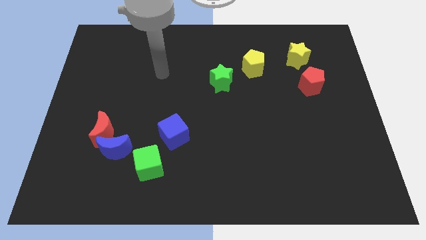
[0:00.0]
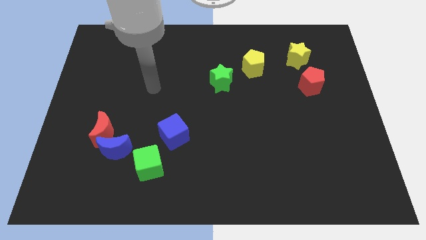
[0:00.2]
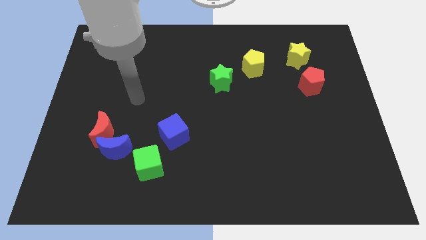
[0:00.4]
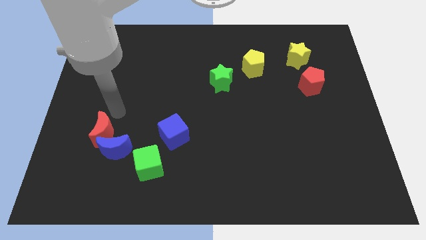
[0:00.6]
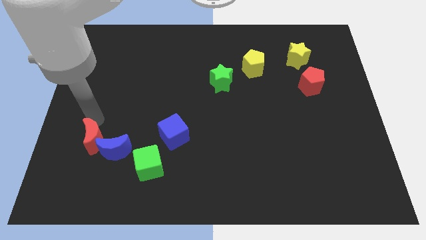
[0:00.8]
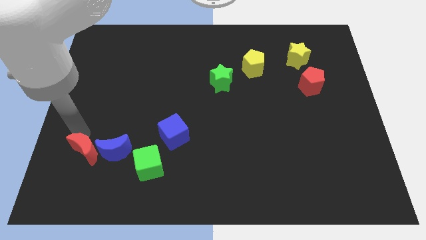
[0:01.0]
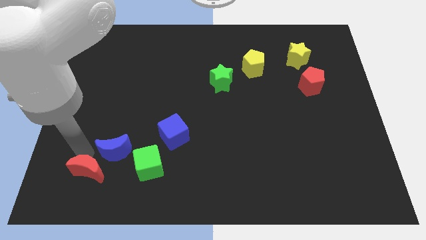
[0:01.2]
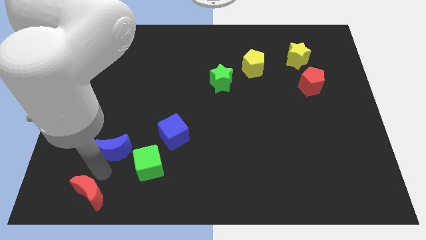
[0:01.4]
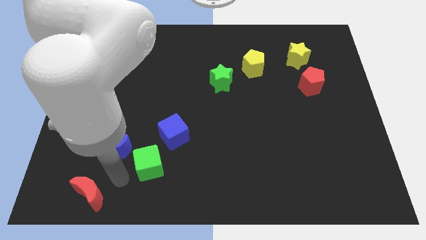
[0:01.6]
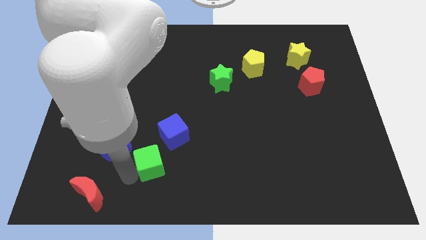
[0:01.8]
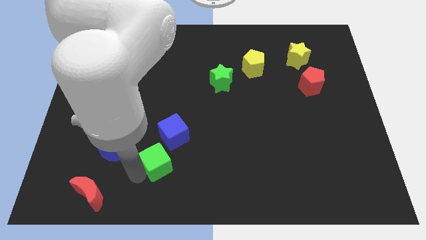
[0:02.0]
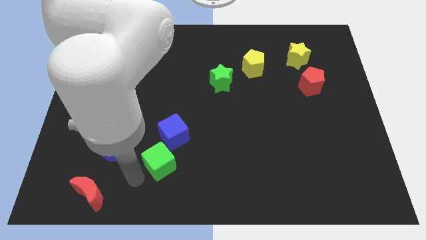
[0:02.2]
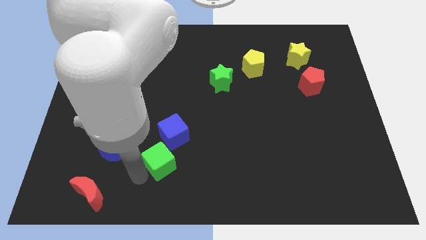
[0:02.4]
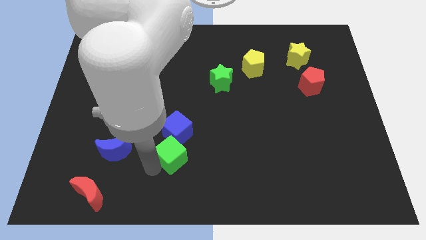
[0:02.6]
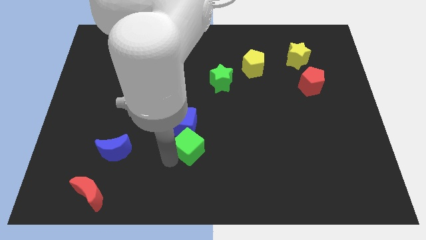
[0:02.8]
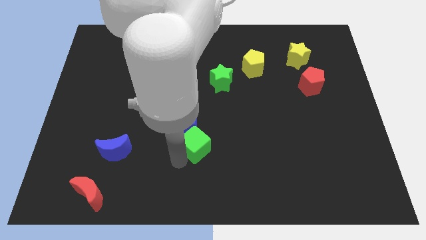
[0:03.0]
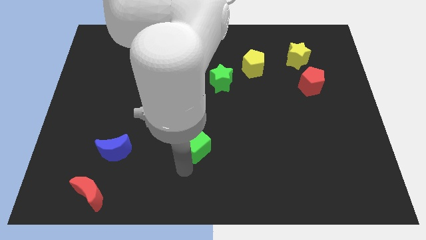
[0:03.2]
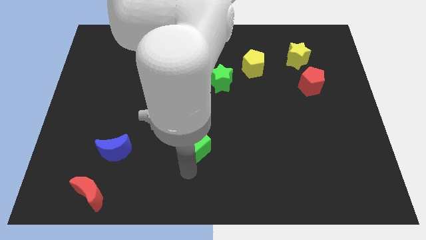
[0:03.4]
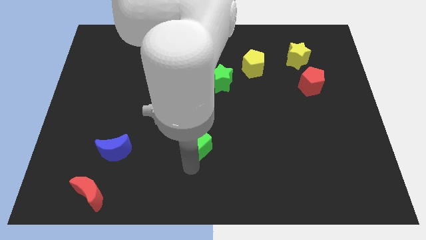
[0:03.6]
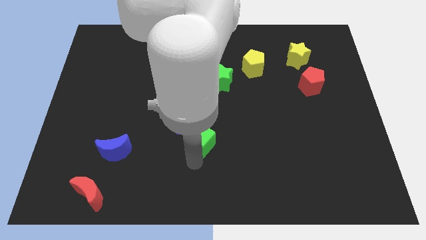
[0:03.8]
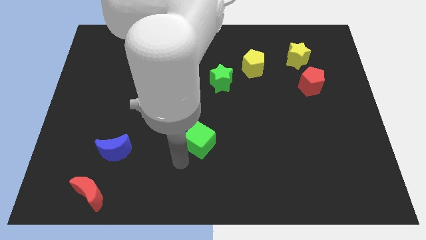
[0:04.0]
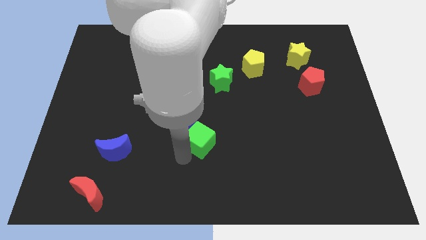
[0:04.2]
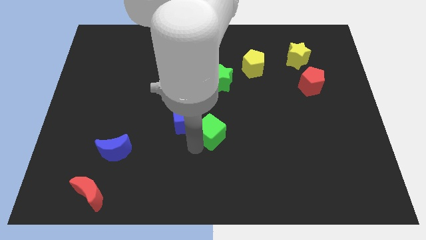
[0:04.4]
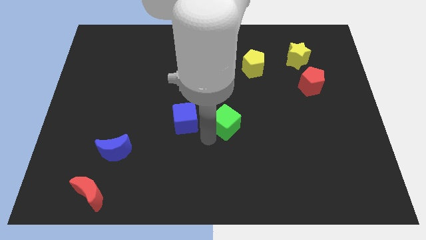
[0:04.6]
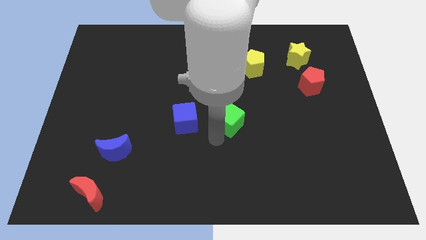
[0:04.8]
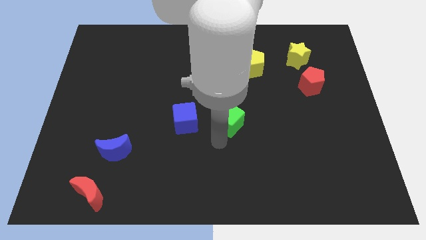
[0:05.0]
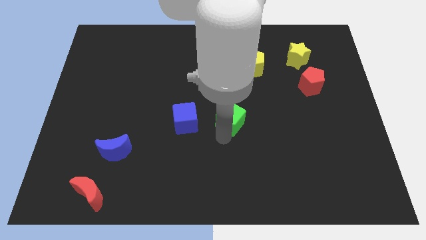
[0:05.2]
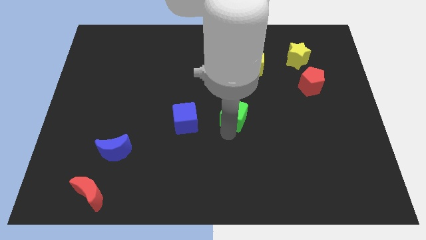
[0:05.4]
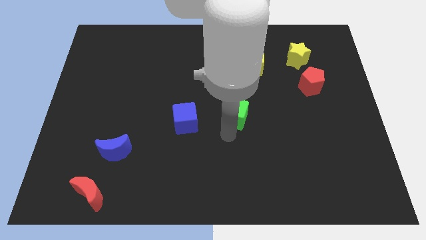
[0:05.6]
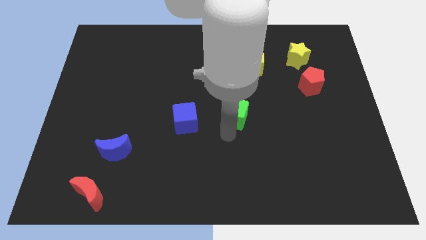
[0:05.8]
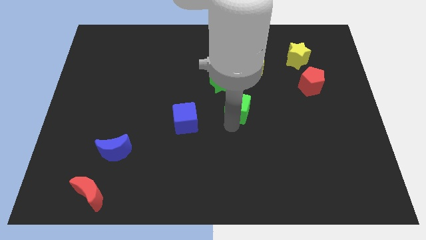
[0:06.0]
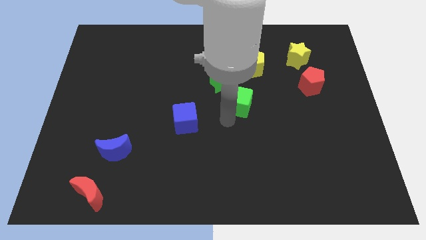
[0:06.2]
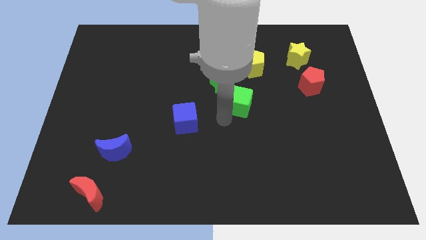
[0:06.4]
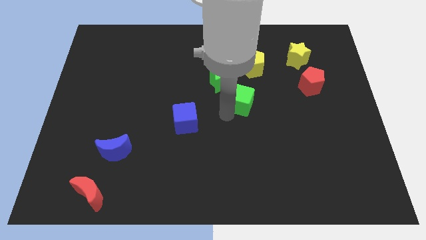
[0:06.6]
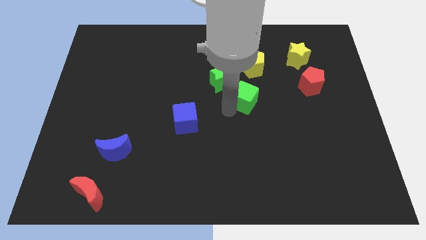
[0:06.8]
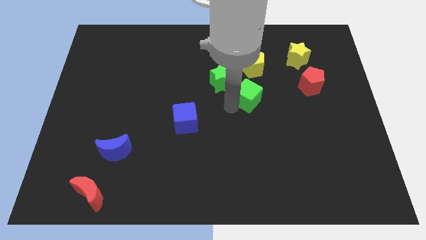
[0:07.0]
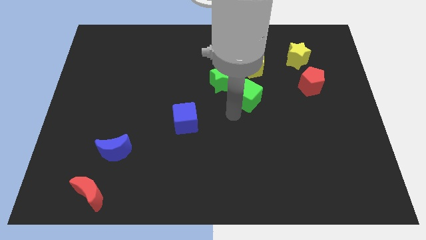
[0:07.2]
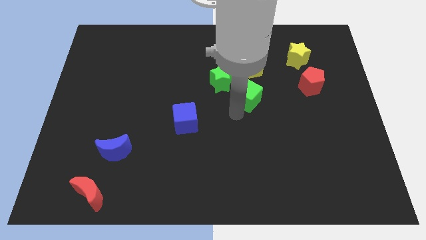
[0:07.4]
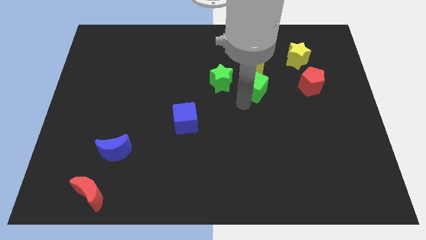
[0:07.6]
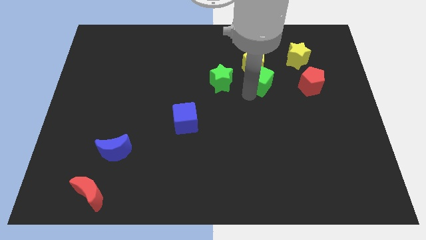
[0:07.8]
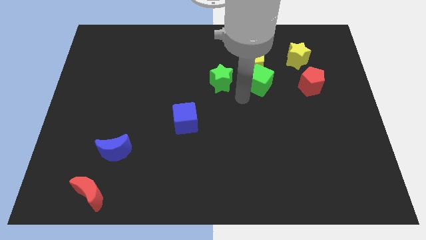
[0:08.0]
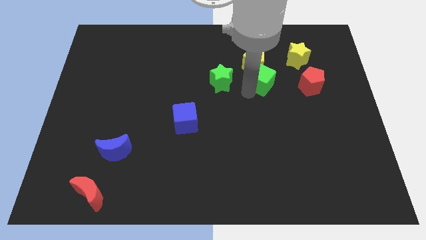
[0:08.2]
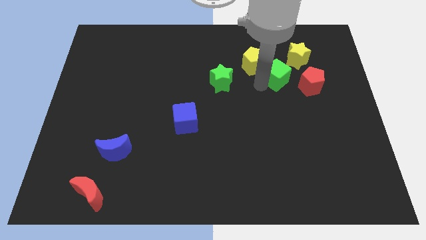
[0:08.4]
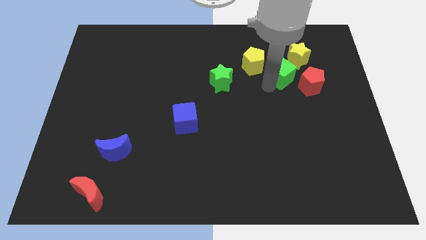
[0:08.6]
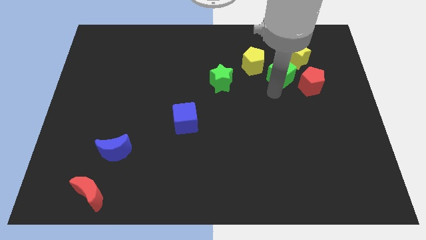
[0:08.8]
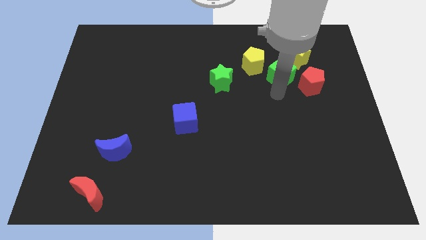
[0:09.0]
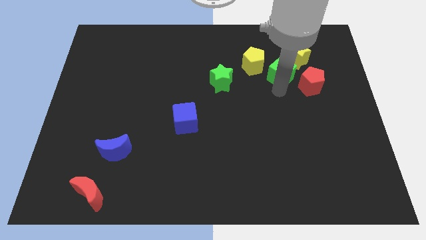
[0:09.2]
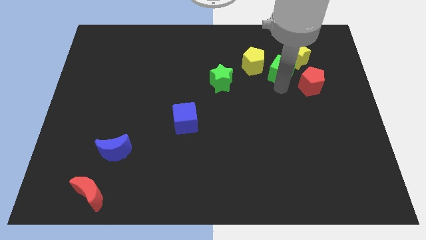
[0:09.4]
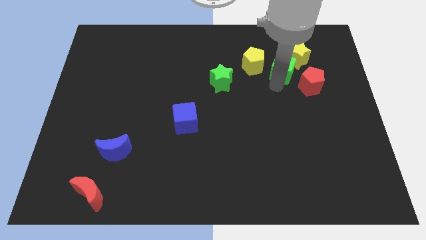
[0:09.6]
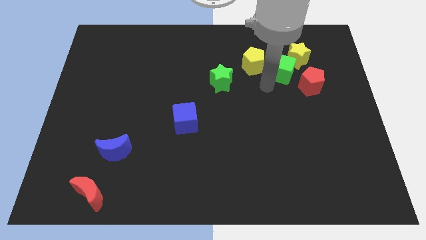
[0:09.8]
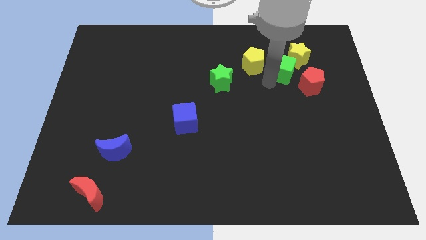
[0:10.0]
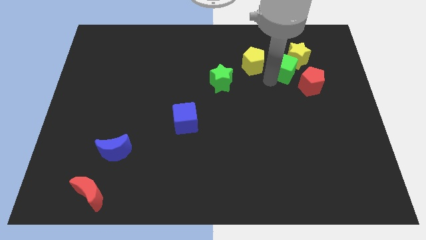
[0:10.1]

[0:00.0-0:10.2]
slide the green cube to the yellow star

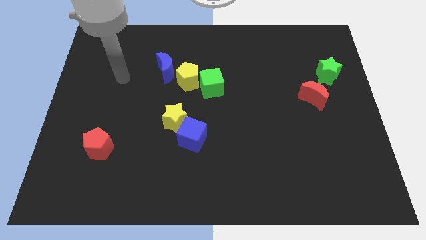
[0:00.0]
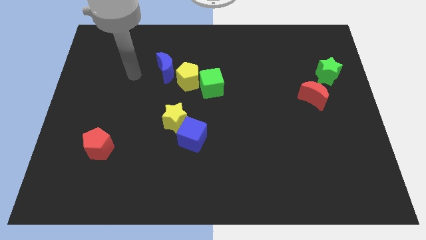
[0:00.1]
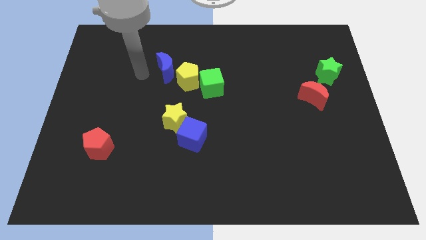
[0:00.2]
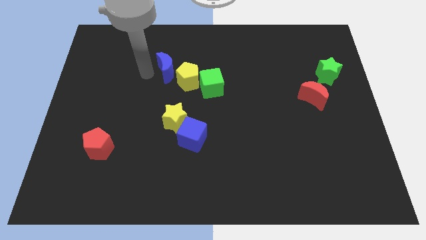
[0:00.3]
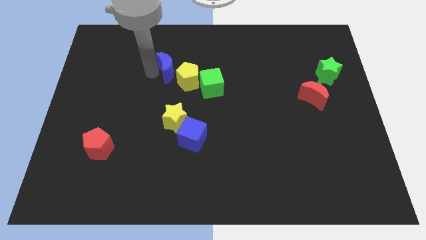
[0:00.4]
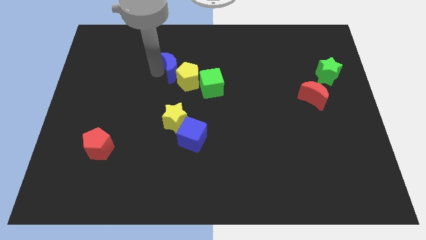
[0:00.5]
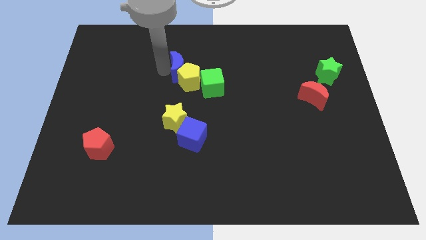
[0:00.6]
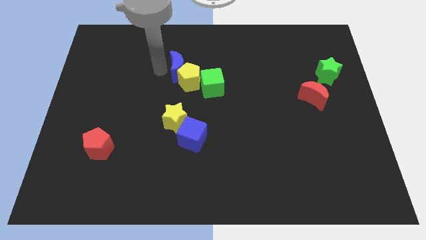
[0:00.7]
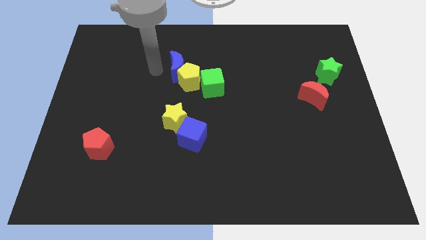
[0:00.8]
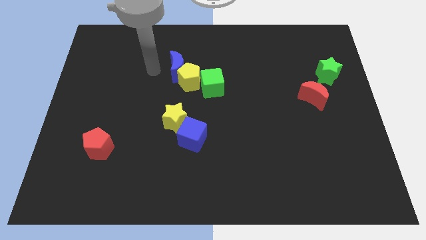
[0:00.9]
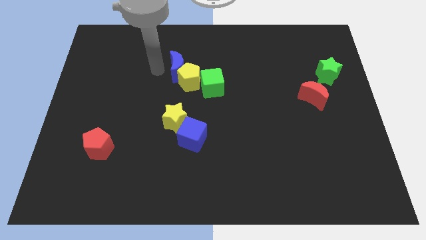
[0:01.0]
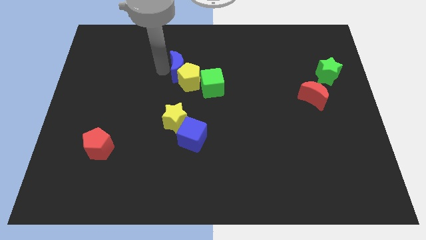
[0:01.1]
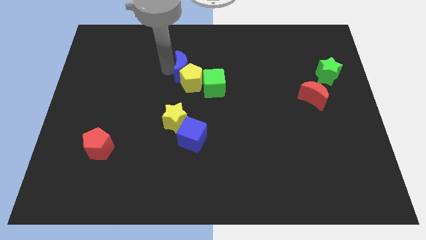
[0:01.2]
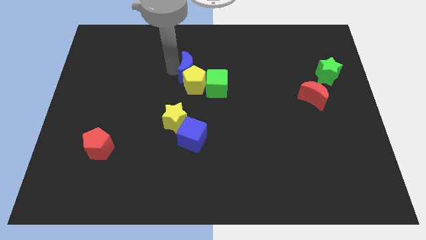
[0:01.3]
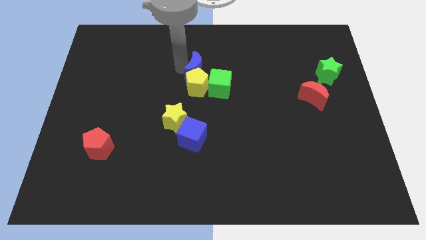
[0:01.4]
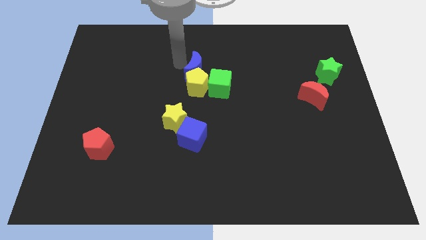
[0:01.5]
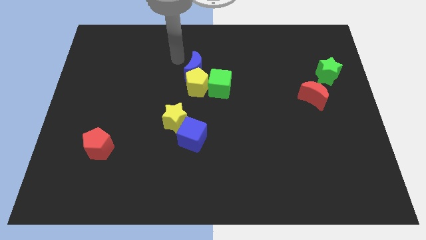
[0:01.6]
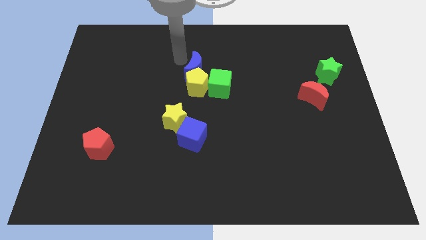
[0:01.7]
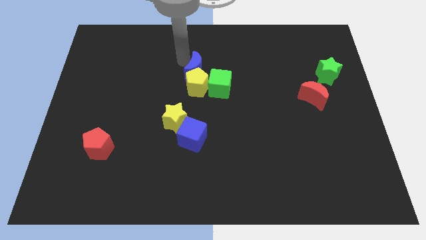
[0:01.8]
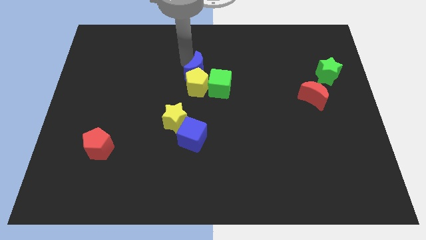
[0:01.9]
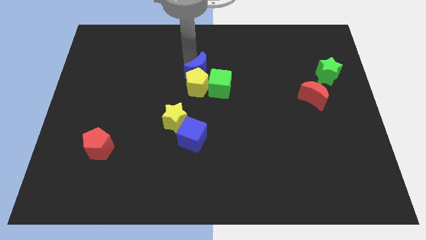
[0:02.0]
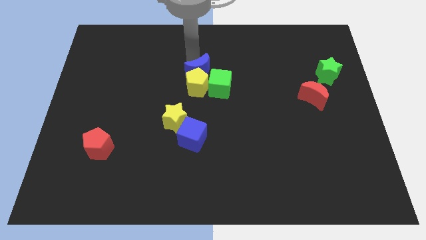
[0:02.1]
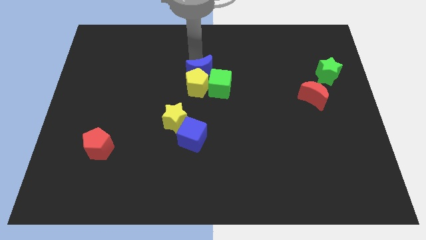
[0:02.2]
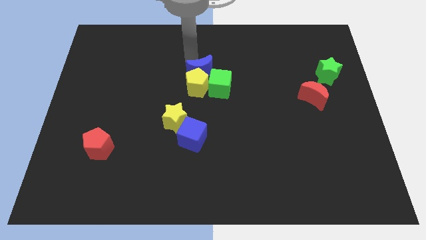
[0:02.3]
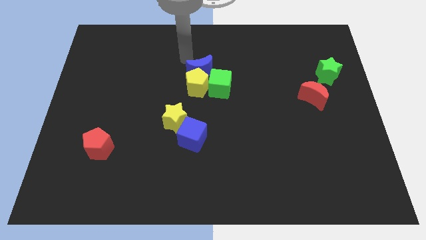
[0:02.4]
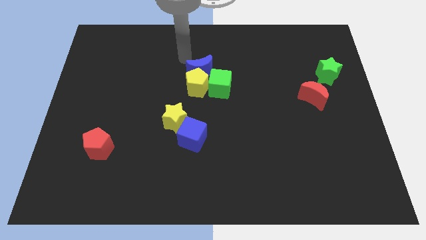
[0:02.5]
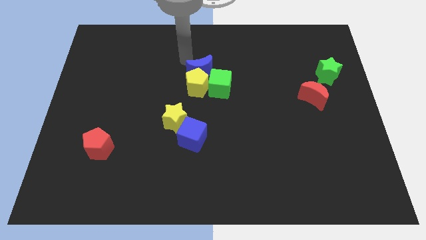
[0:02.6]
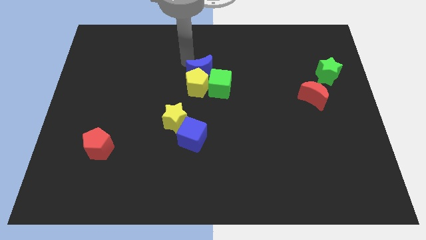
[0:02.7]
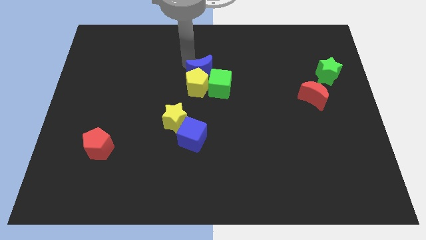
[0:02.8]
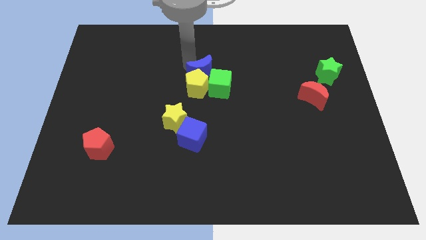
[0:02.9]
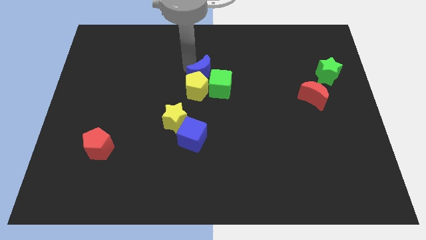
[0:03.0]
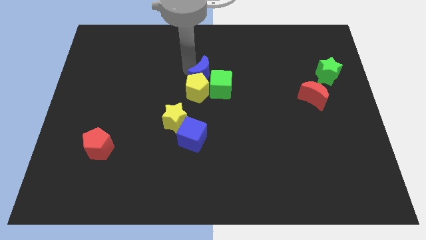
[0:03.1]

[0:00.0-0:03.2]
slide the blue moon to the green cube
